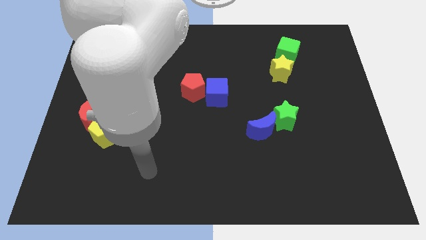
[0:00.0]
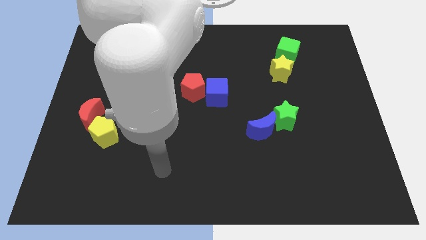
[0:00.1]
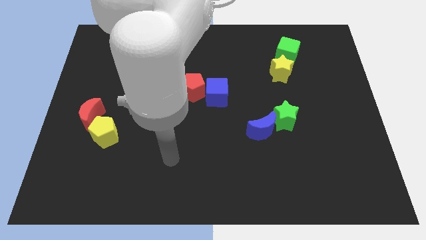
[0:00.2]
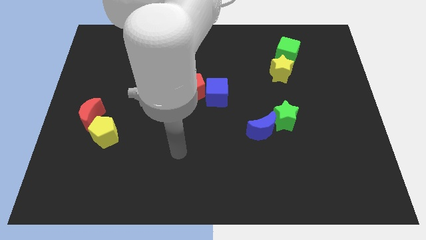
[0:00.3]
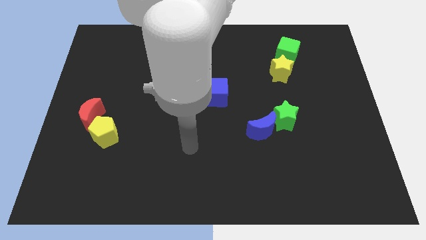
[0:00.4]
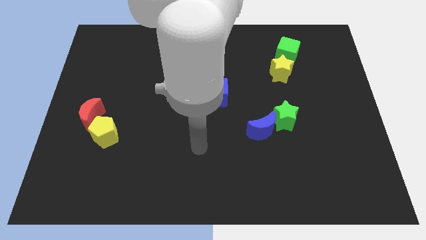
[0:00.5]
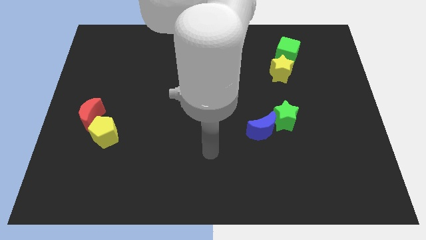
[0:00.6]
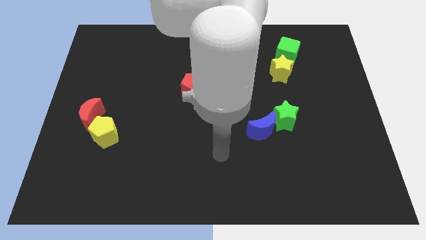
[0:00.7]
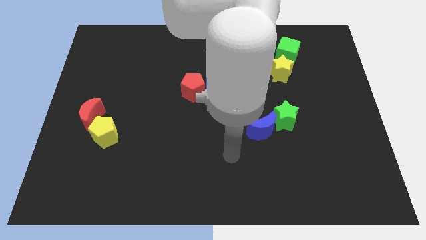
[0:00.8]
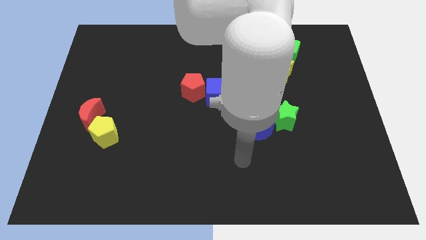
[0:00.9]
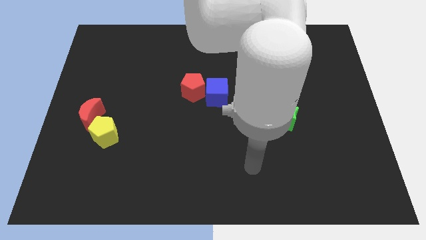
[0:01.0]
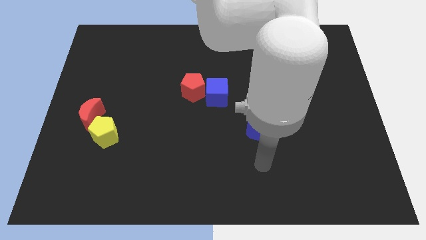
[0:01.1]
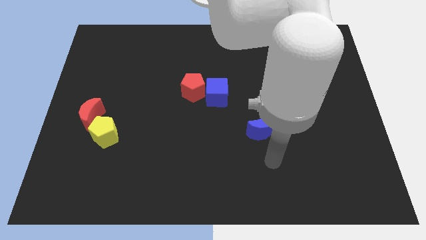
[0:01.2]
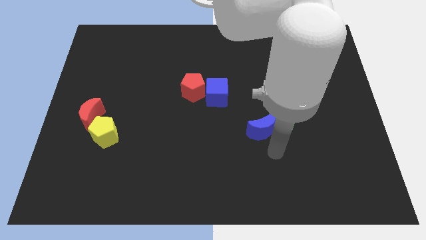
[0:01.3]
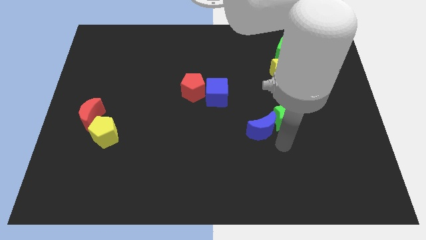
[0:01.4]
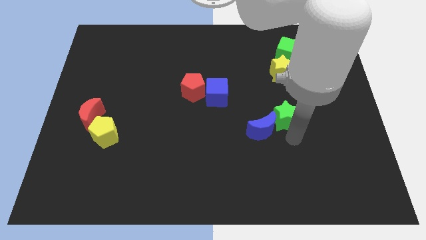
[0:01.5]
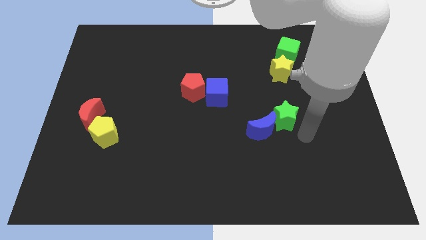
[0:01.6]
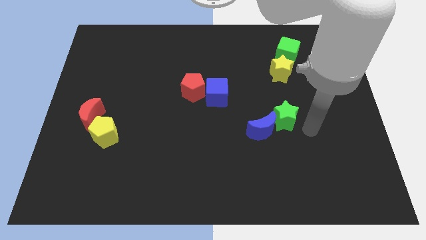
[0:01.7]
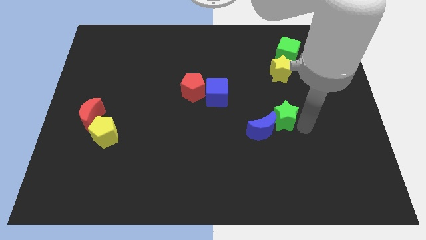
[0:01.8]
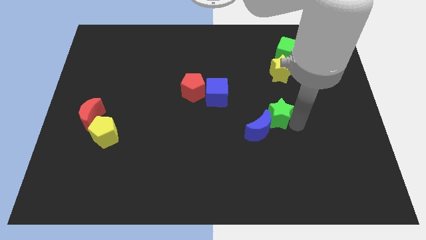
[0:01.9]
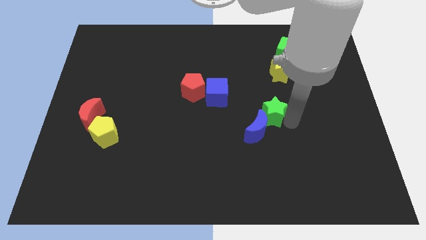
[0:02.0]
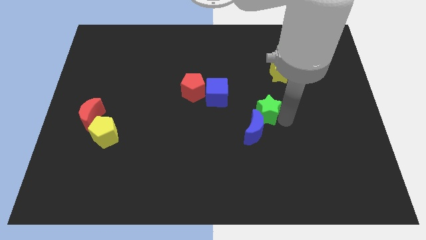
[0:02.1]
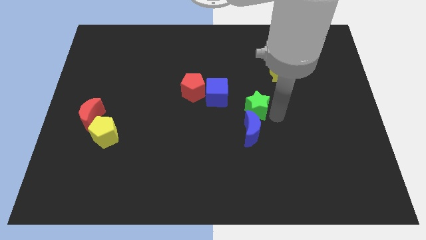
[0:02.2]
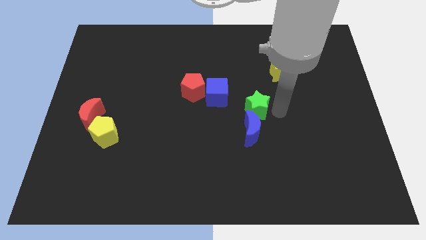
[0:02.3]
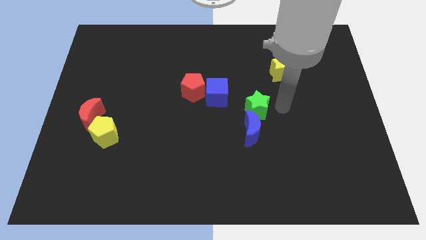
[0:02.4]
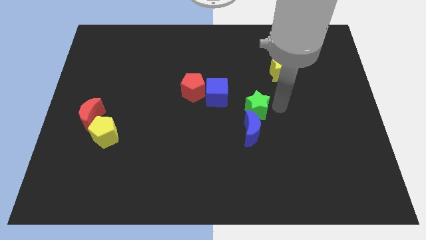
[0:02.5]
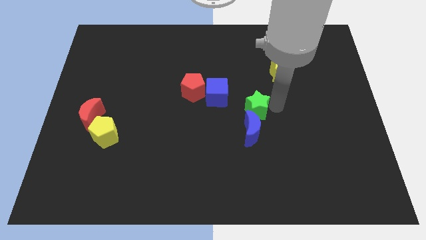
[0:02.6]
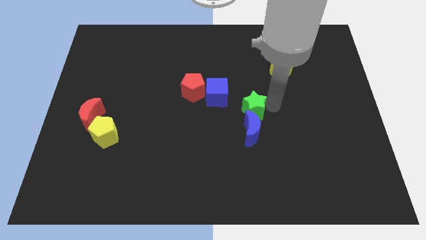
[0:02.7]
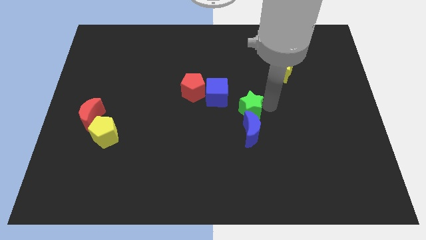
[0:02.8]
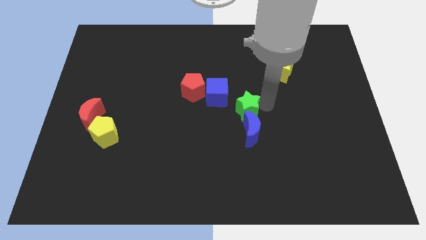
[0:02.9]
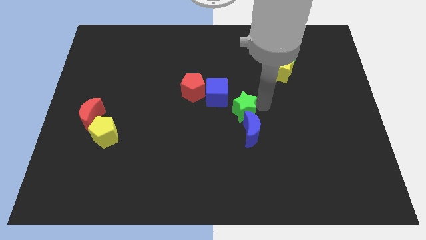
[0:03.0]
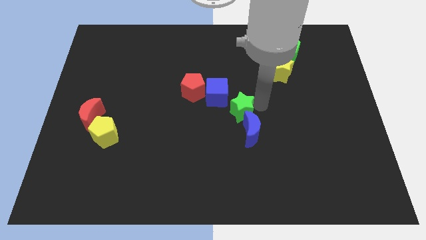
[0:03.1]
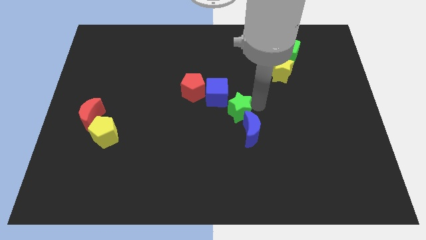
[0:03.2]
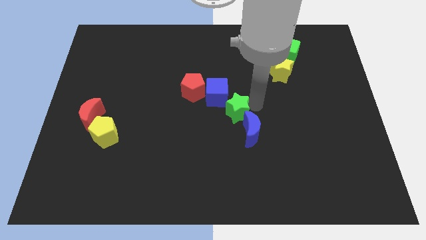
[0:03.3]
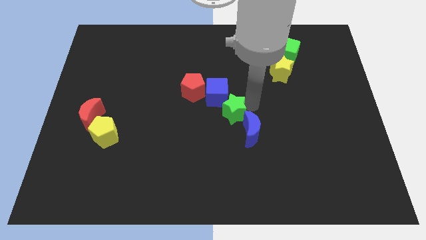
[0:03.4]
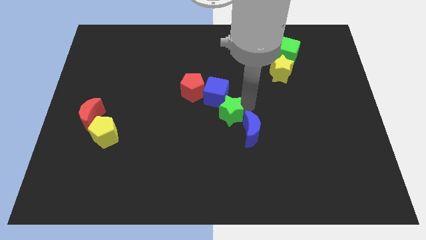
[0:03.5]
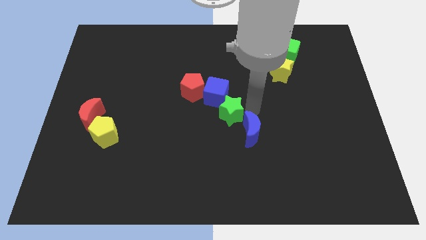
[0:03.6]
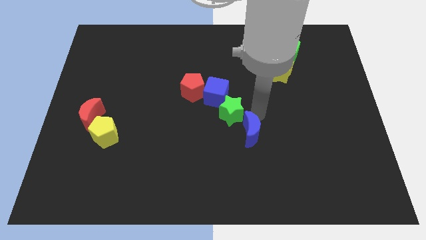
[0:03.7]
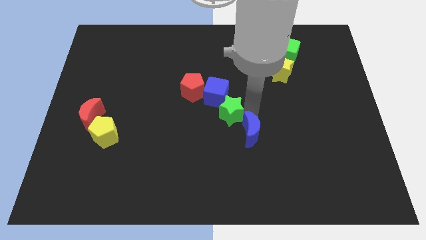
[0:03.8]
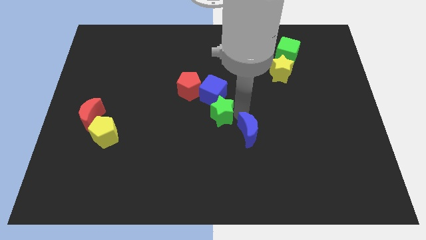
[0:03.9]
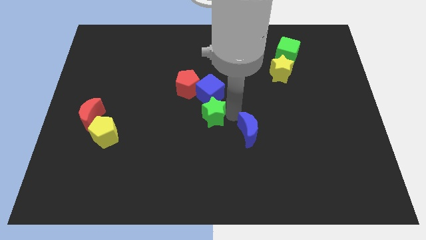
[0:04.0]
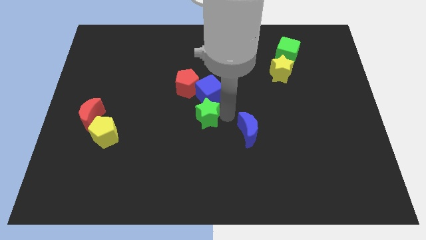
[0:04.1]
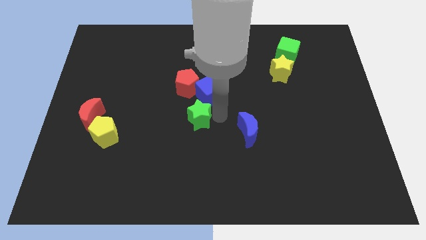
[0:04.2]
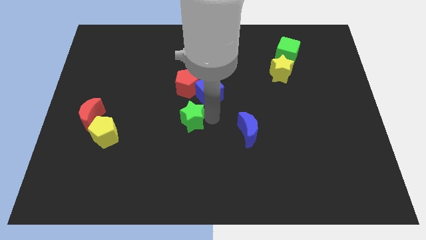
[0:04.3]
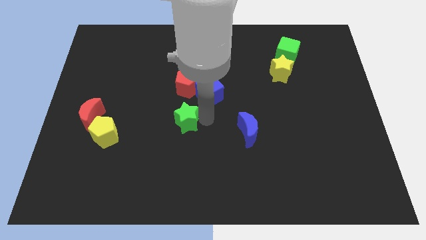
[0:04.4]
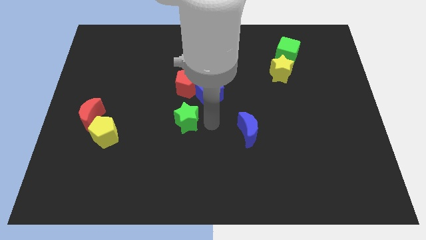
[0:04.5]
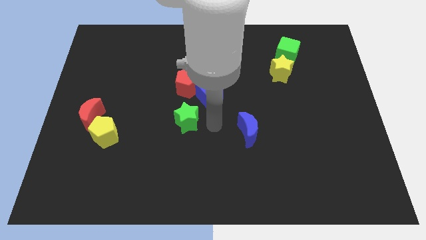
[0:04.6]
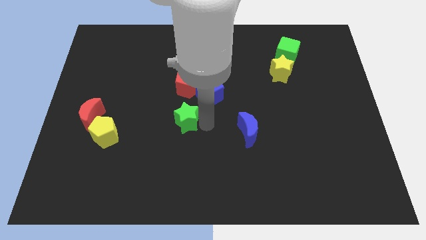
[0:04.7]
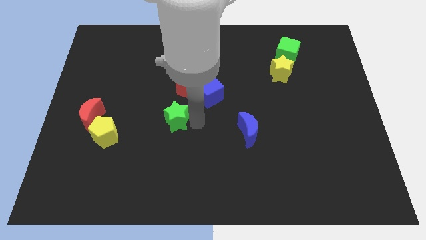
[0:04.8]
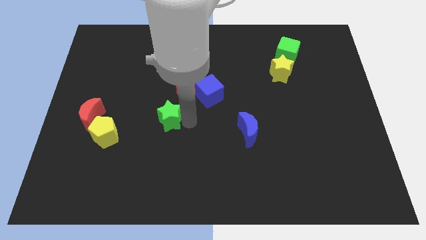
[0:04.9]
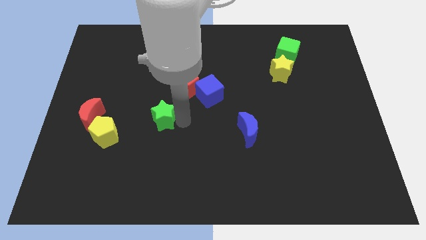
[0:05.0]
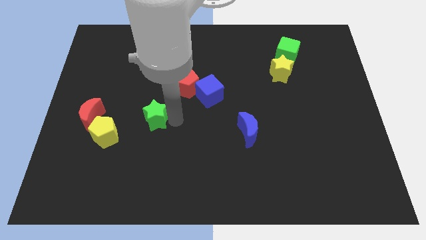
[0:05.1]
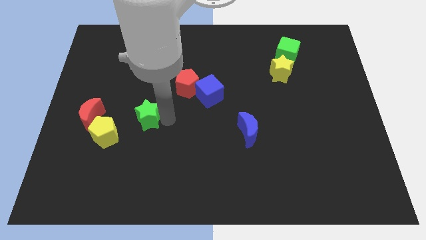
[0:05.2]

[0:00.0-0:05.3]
move the green star to the top right of the yellow pentagon

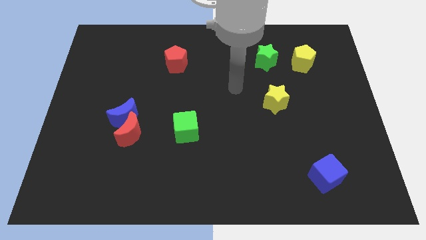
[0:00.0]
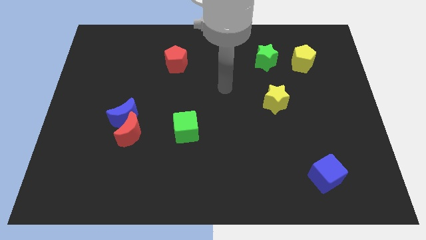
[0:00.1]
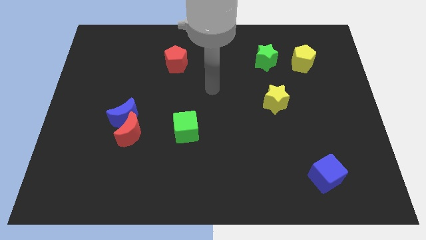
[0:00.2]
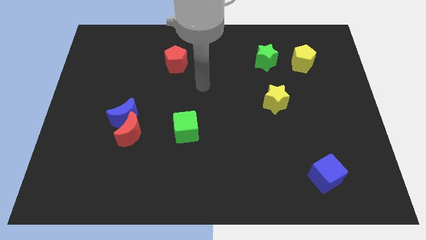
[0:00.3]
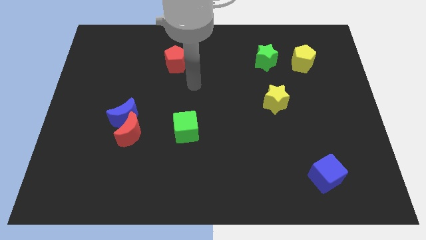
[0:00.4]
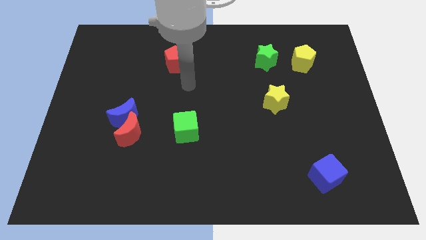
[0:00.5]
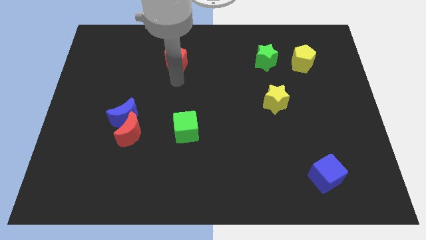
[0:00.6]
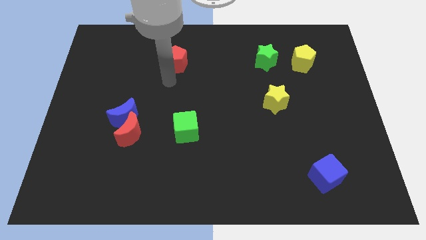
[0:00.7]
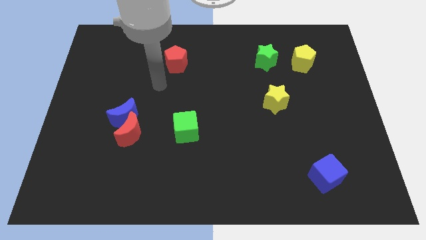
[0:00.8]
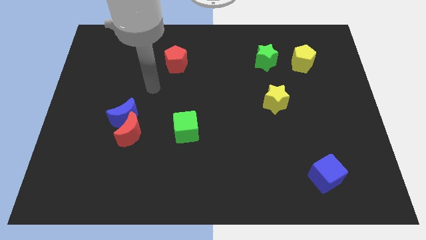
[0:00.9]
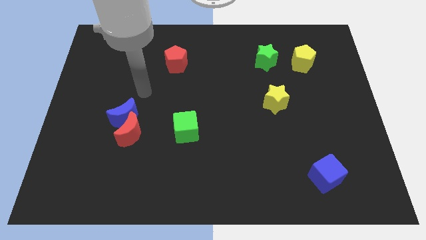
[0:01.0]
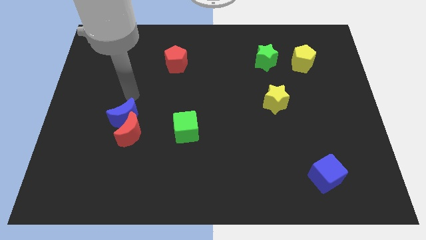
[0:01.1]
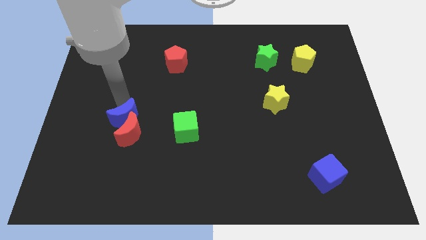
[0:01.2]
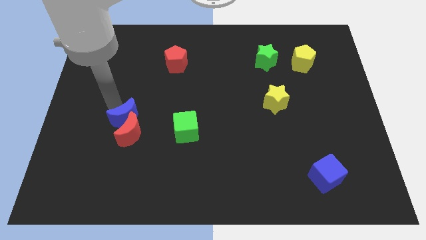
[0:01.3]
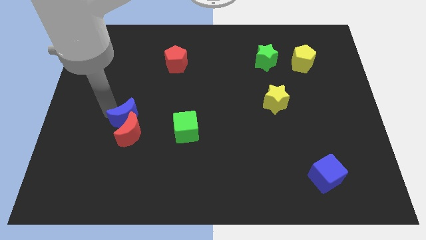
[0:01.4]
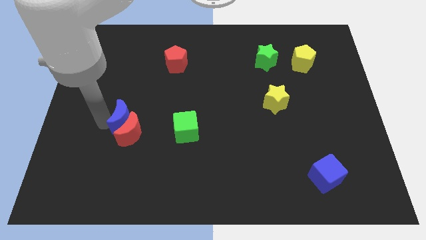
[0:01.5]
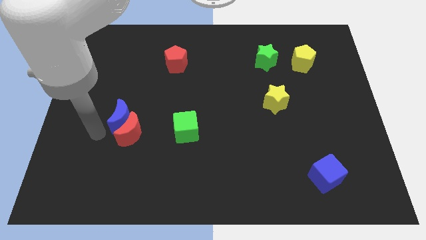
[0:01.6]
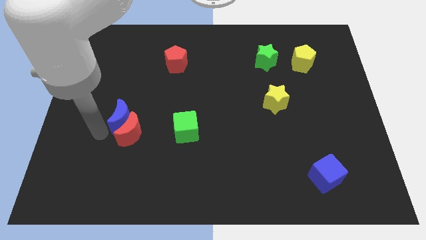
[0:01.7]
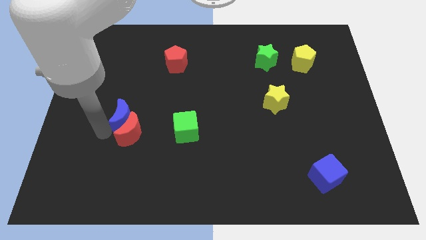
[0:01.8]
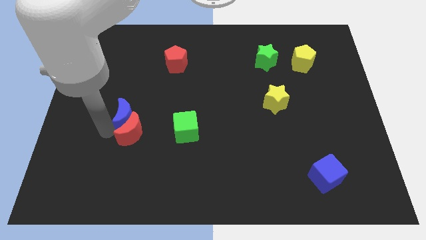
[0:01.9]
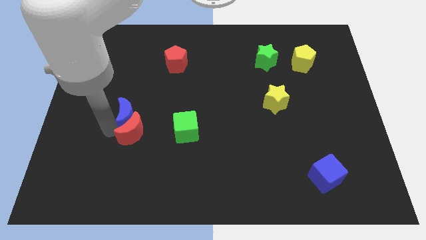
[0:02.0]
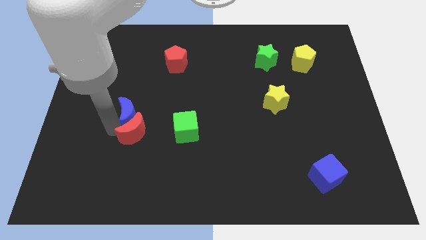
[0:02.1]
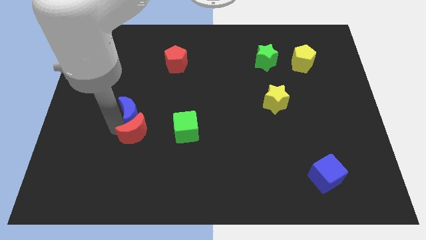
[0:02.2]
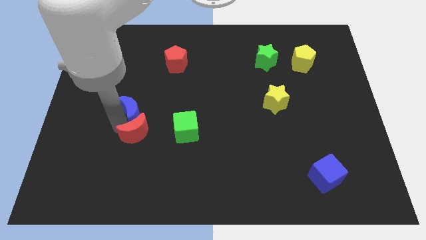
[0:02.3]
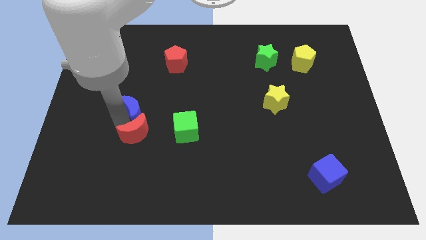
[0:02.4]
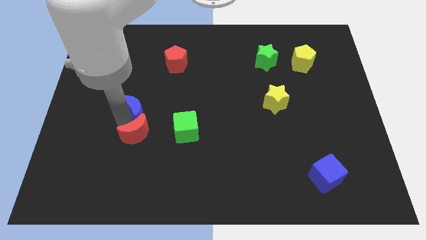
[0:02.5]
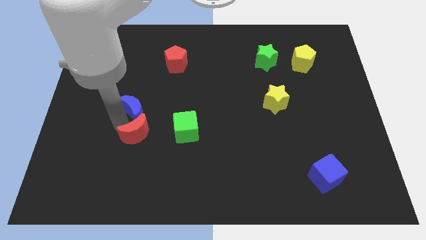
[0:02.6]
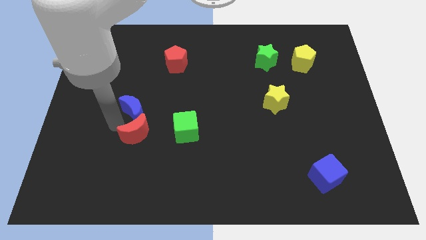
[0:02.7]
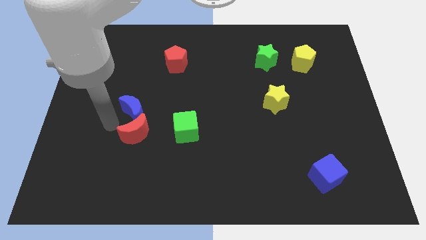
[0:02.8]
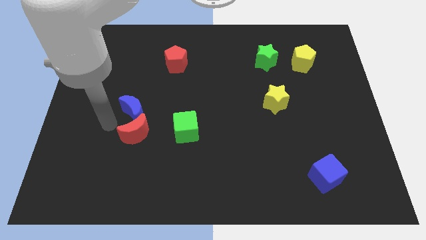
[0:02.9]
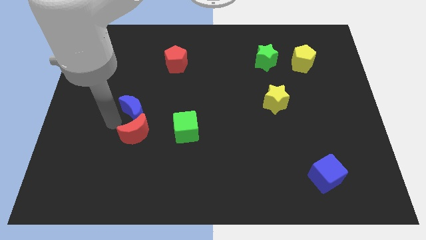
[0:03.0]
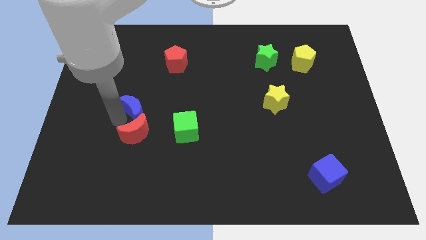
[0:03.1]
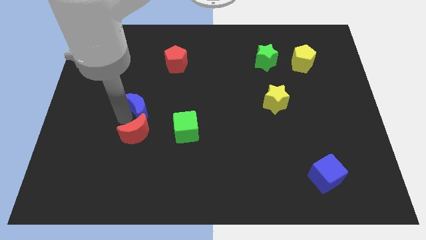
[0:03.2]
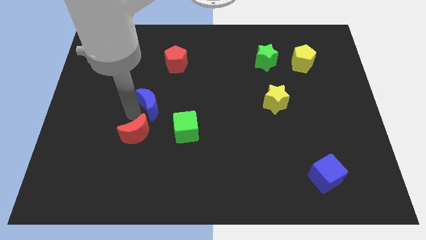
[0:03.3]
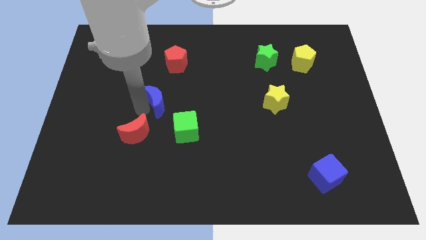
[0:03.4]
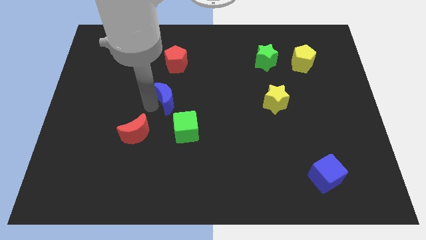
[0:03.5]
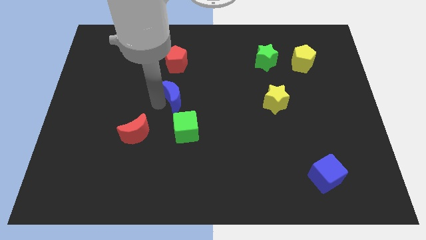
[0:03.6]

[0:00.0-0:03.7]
push the blue moon to the top side of the green cube
